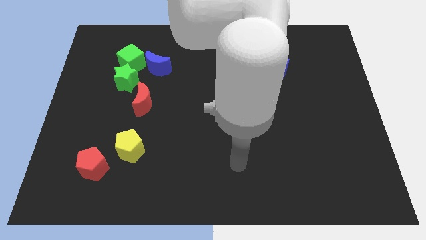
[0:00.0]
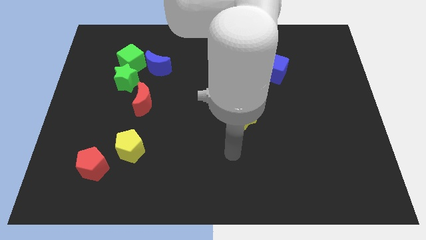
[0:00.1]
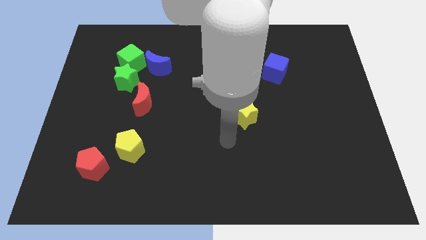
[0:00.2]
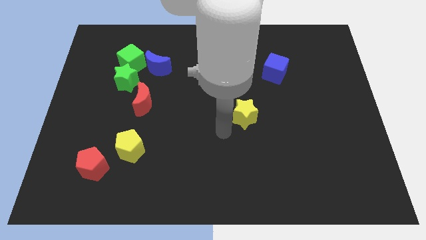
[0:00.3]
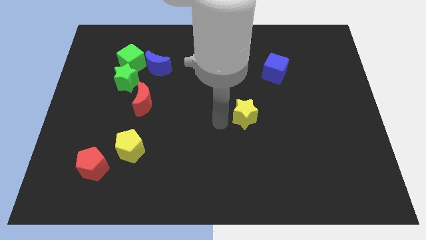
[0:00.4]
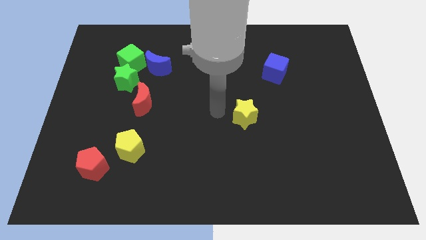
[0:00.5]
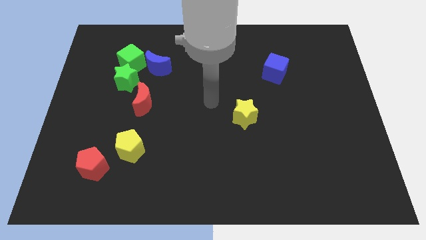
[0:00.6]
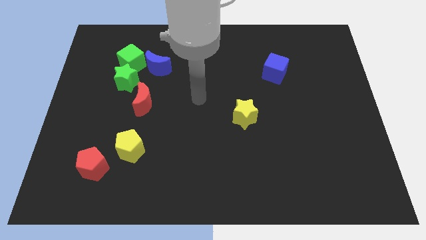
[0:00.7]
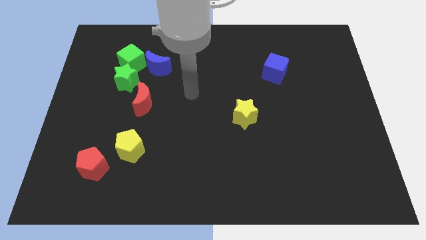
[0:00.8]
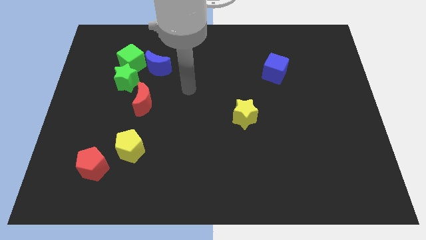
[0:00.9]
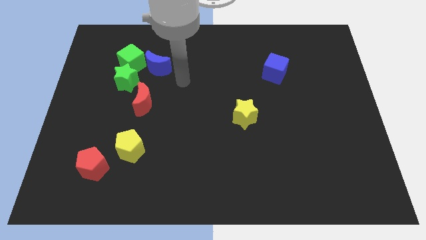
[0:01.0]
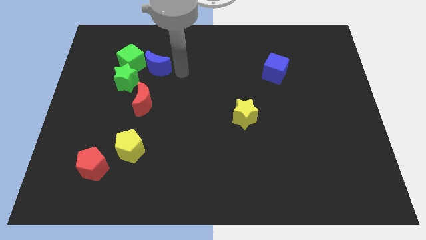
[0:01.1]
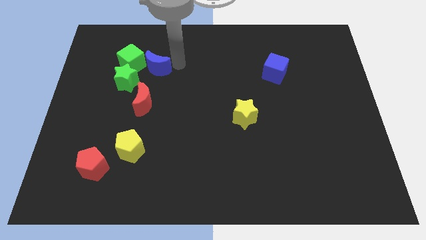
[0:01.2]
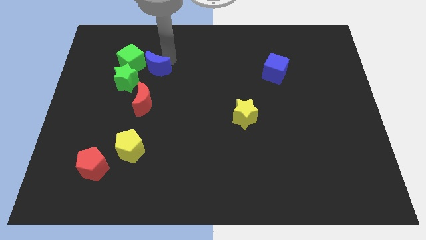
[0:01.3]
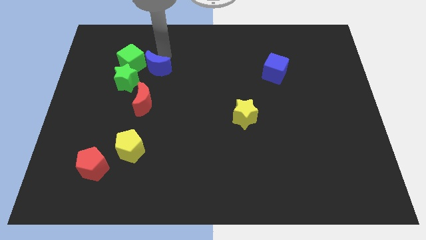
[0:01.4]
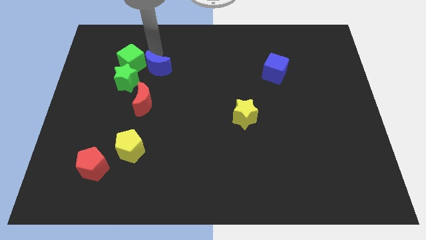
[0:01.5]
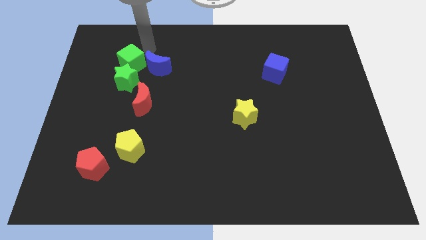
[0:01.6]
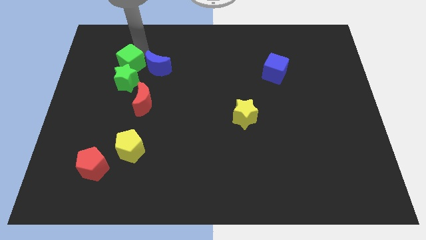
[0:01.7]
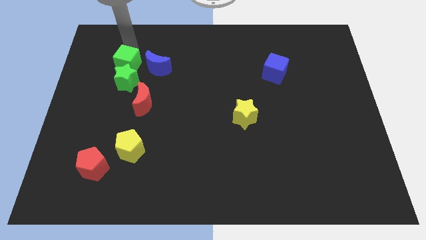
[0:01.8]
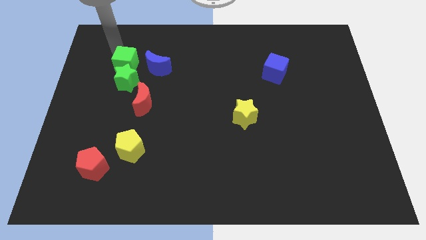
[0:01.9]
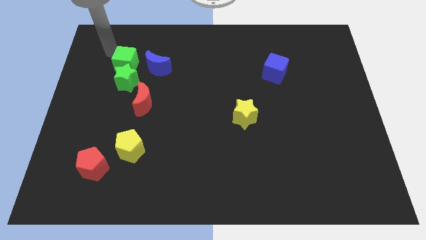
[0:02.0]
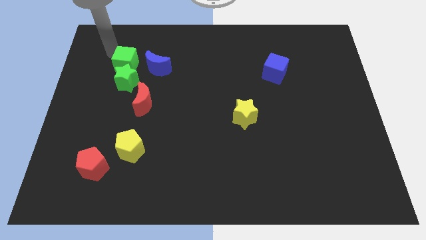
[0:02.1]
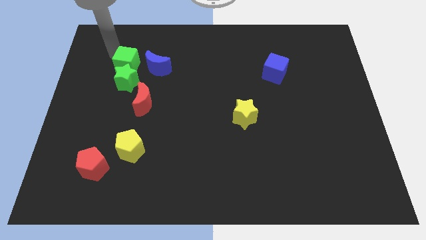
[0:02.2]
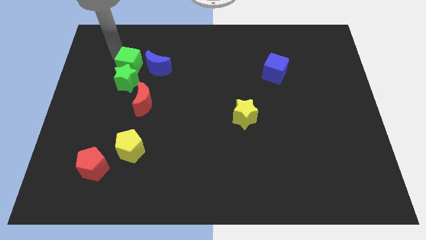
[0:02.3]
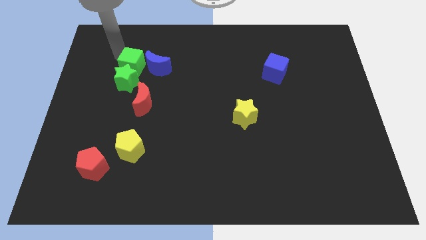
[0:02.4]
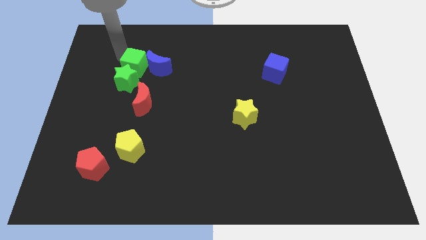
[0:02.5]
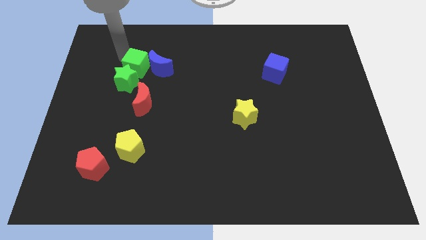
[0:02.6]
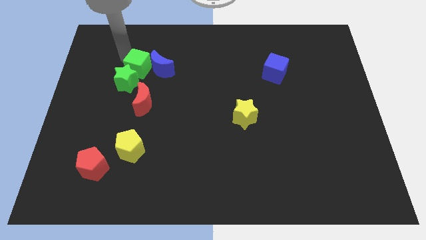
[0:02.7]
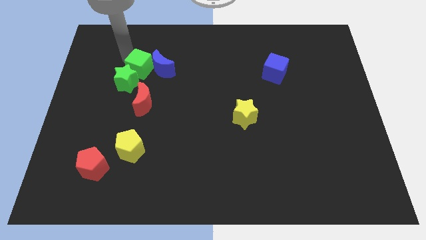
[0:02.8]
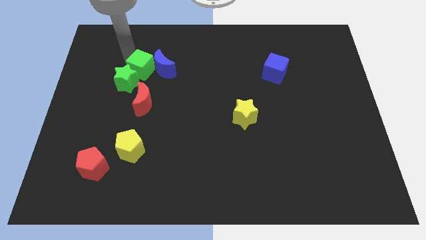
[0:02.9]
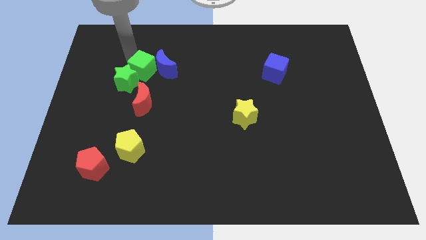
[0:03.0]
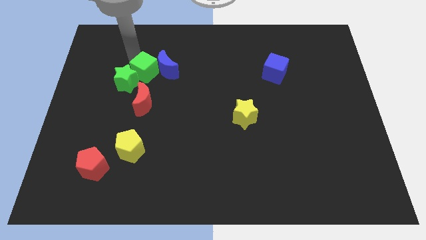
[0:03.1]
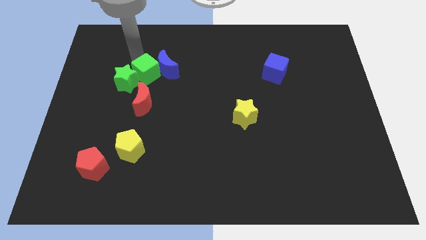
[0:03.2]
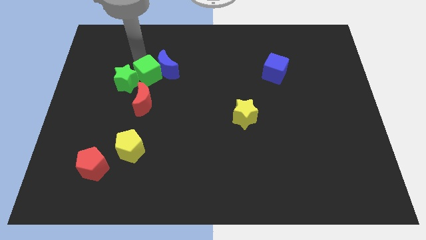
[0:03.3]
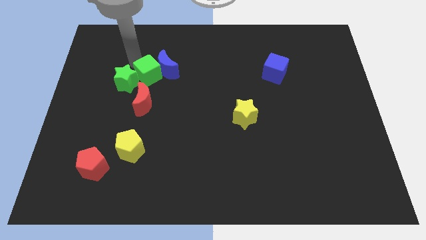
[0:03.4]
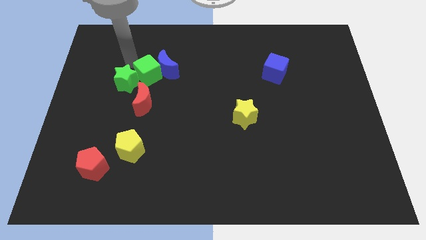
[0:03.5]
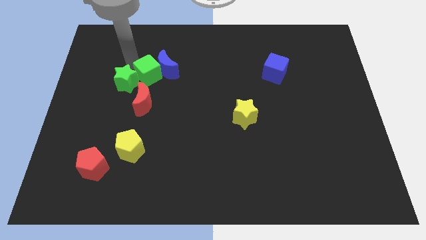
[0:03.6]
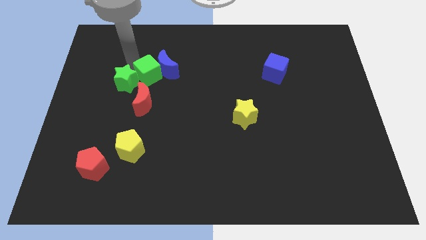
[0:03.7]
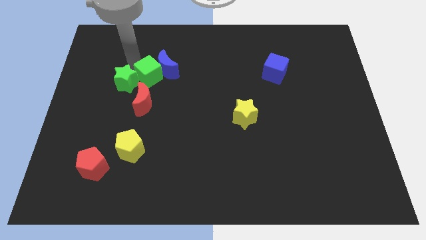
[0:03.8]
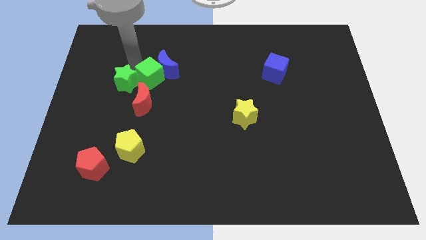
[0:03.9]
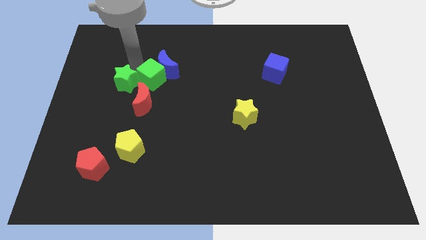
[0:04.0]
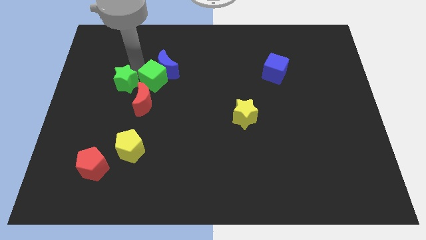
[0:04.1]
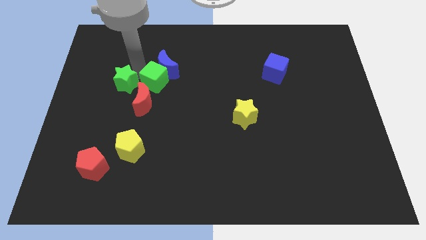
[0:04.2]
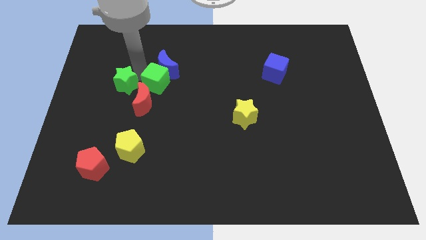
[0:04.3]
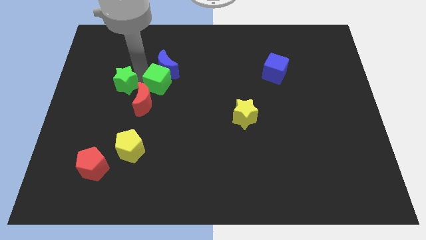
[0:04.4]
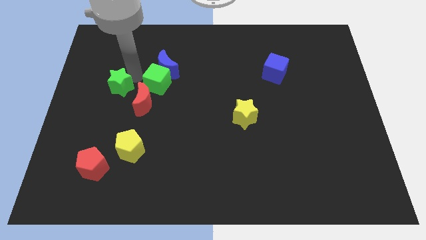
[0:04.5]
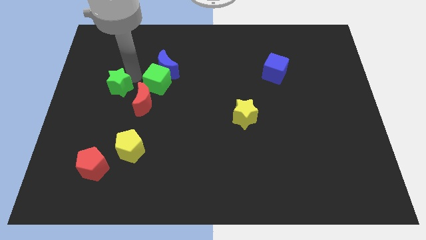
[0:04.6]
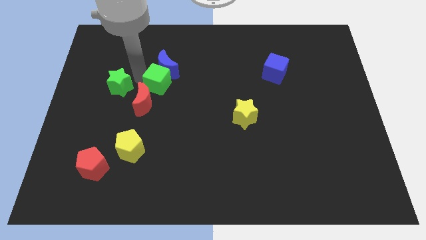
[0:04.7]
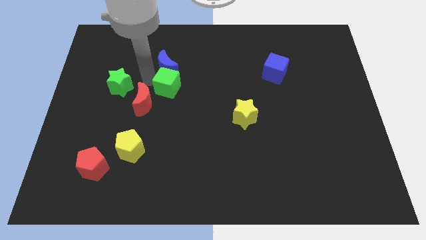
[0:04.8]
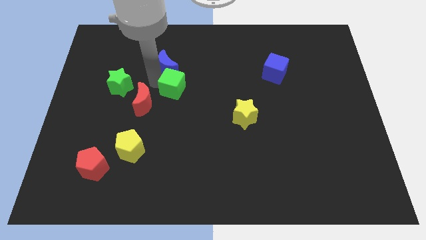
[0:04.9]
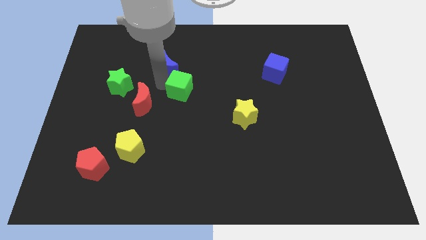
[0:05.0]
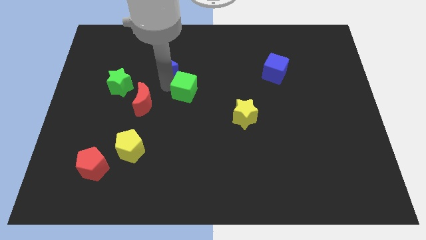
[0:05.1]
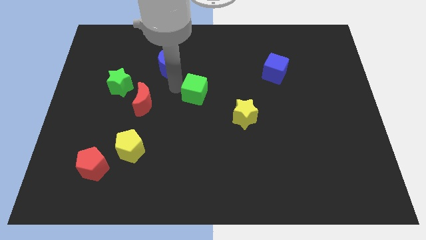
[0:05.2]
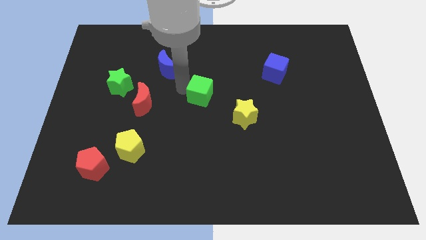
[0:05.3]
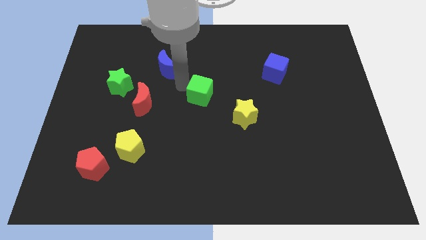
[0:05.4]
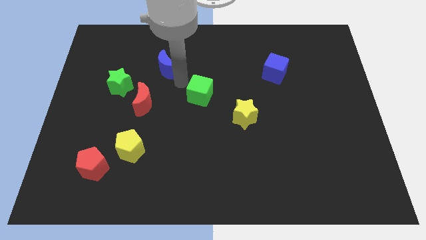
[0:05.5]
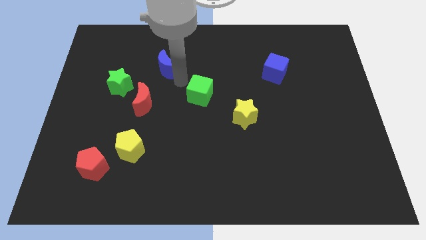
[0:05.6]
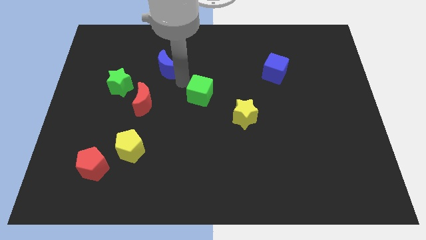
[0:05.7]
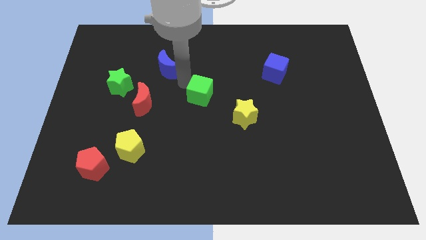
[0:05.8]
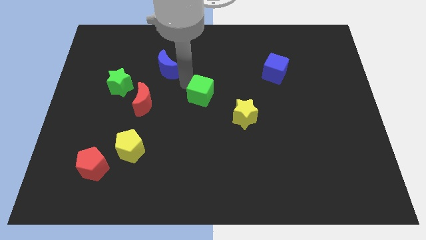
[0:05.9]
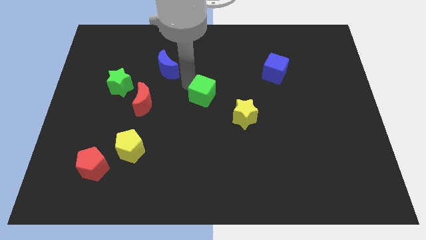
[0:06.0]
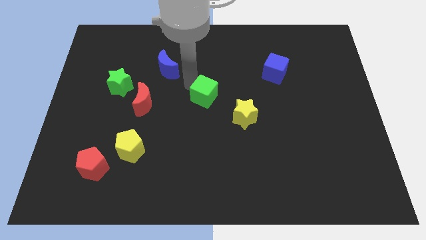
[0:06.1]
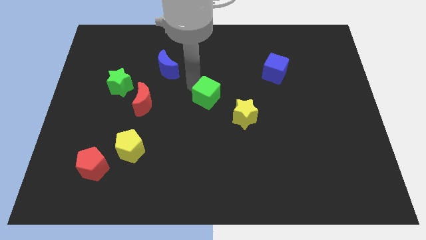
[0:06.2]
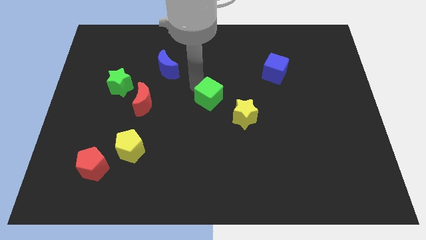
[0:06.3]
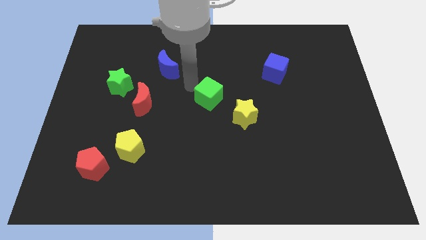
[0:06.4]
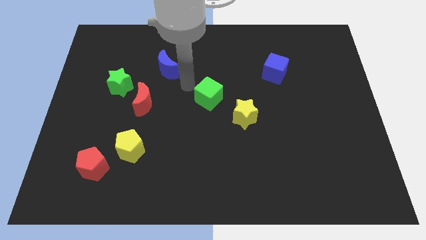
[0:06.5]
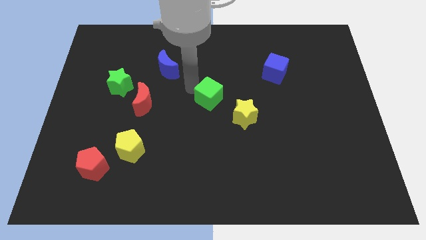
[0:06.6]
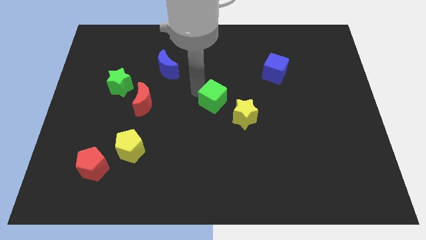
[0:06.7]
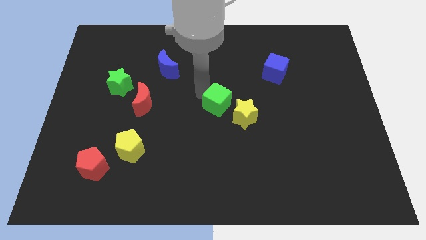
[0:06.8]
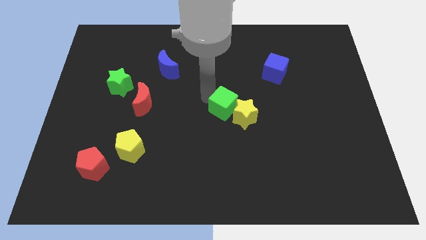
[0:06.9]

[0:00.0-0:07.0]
move the green cube to the yellow star

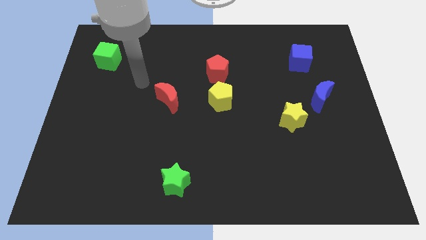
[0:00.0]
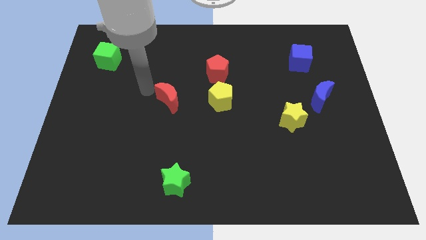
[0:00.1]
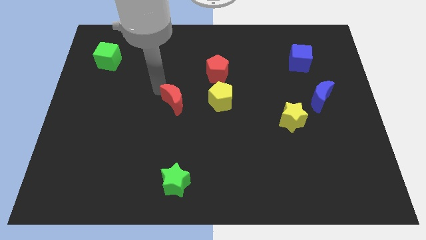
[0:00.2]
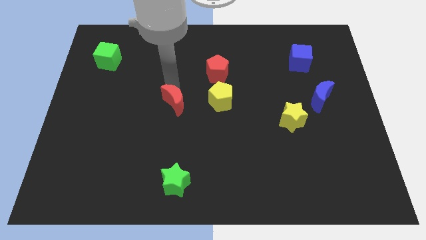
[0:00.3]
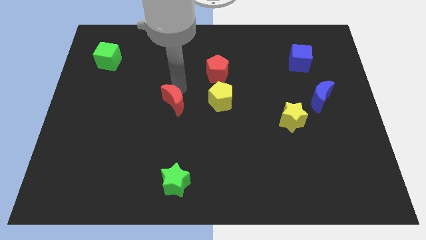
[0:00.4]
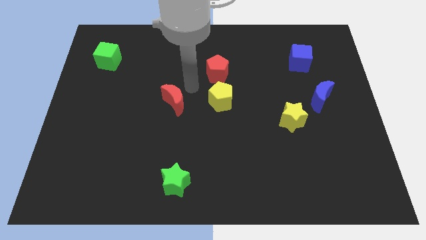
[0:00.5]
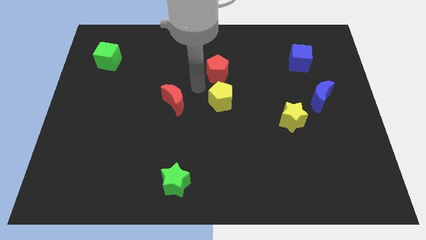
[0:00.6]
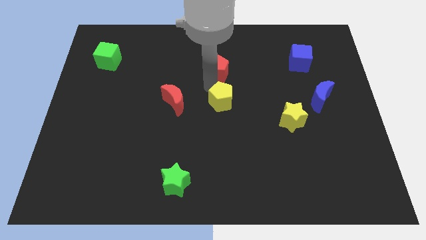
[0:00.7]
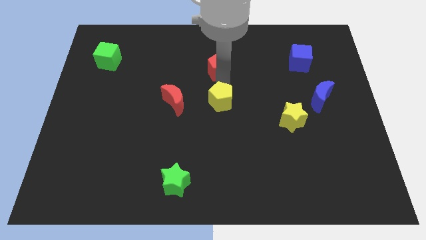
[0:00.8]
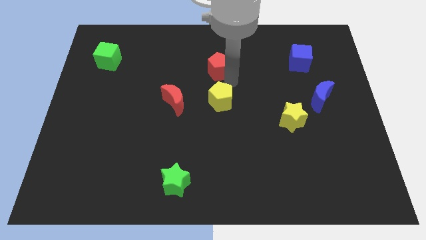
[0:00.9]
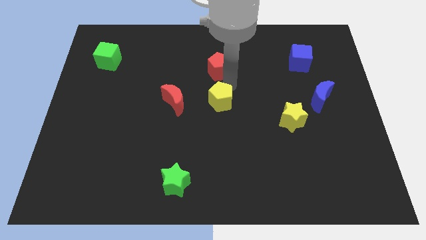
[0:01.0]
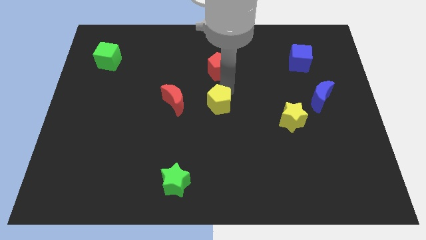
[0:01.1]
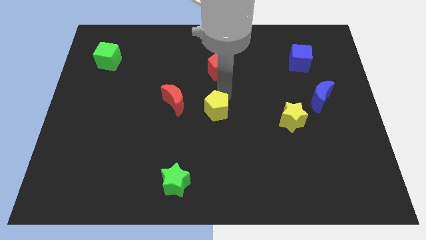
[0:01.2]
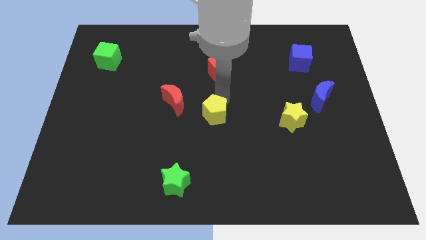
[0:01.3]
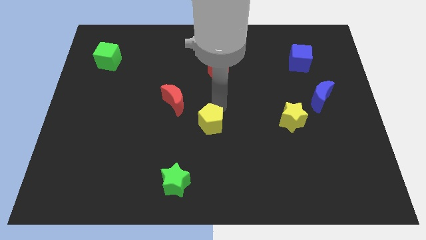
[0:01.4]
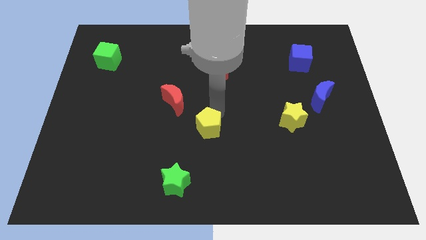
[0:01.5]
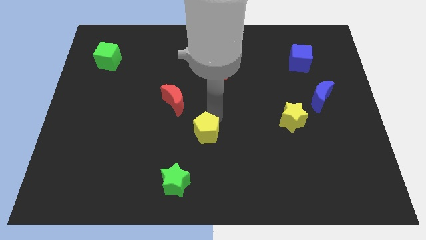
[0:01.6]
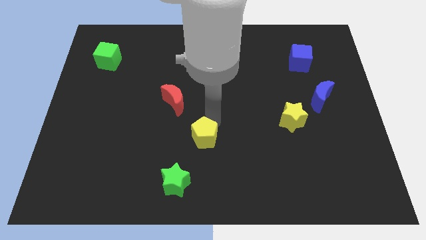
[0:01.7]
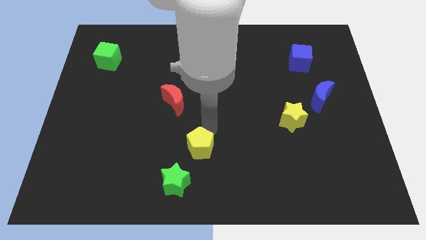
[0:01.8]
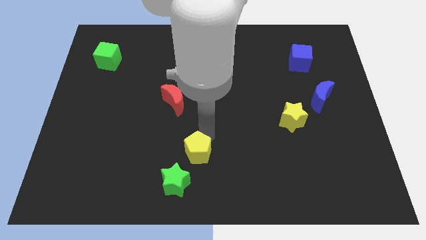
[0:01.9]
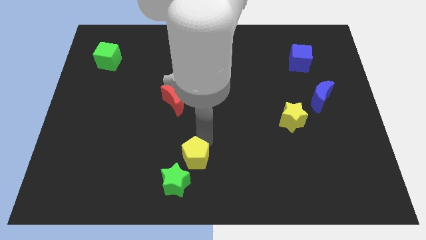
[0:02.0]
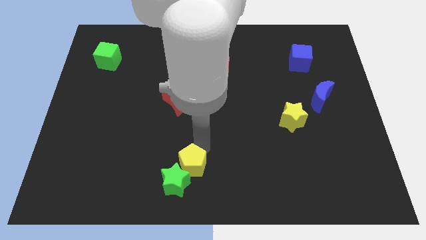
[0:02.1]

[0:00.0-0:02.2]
slide the yellow pentagon close to the green star
